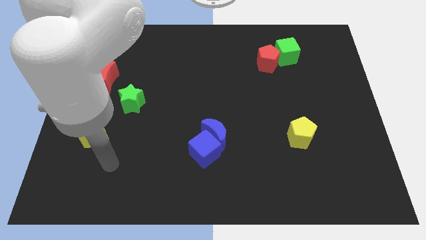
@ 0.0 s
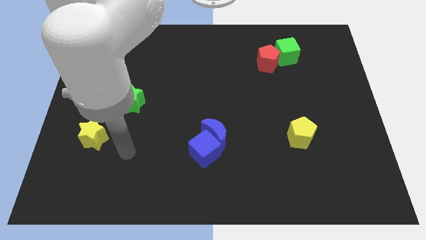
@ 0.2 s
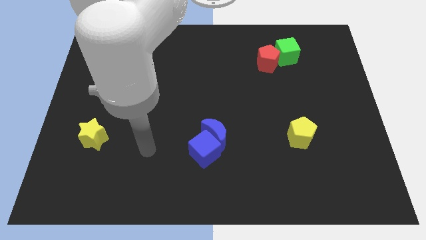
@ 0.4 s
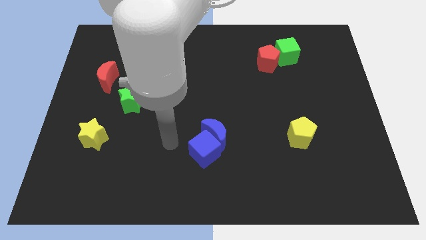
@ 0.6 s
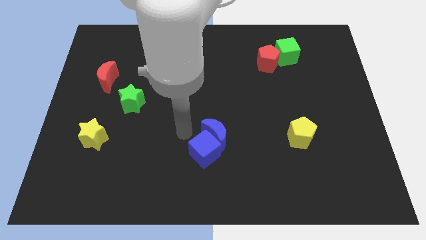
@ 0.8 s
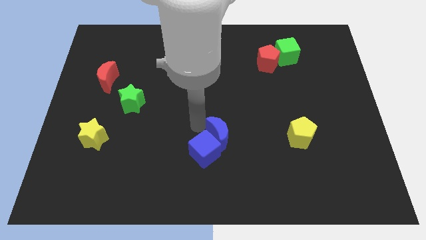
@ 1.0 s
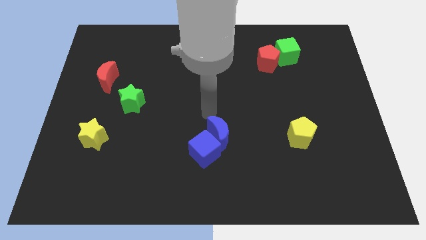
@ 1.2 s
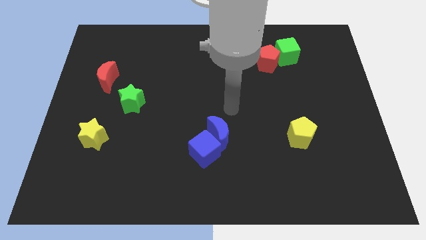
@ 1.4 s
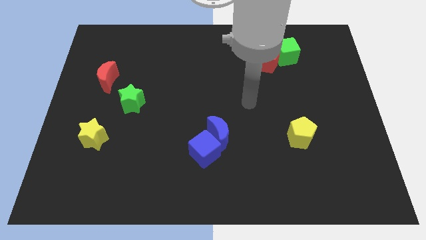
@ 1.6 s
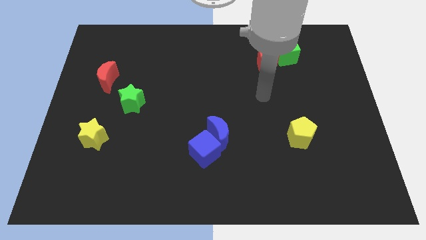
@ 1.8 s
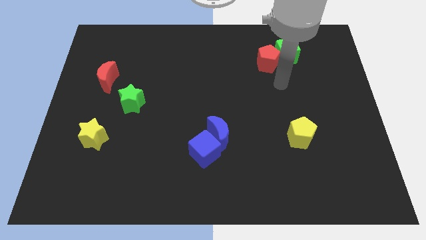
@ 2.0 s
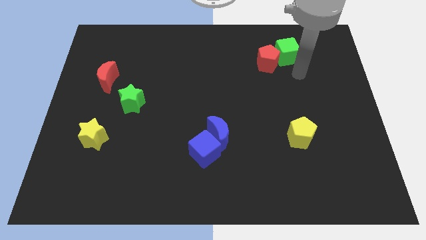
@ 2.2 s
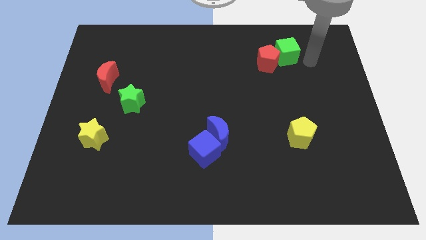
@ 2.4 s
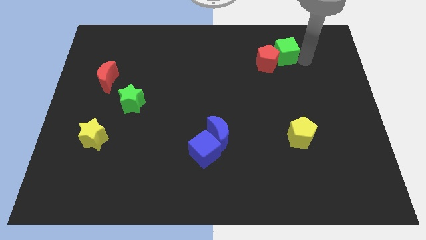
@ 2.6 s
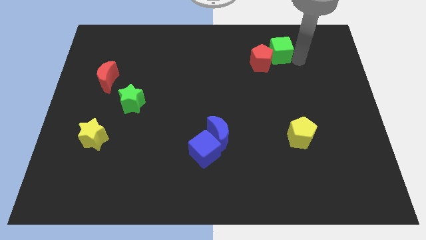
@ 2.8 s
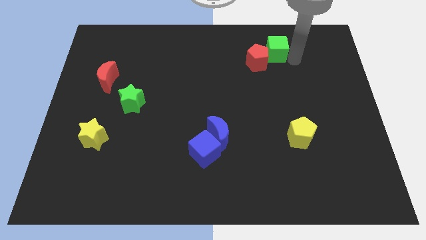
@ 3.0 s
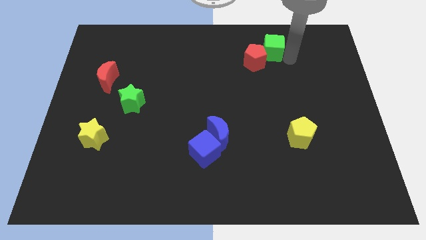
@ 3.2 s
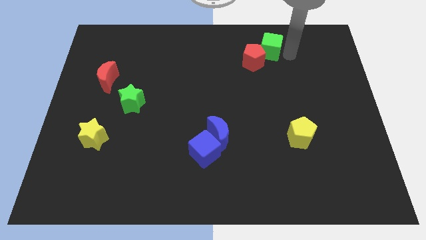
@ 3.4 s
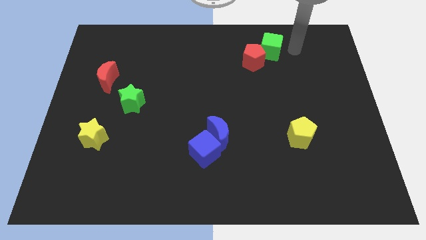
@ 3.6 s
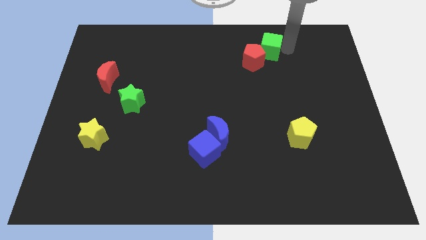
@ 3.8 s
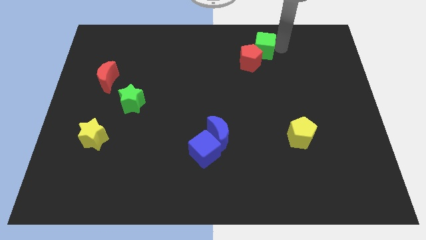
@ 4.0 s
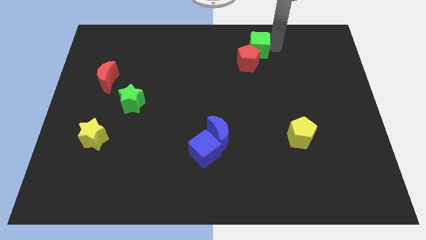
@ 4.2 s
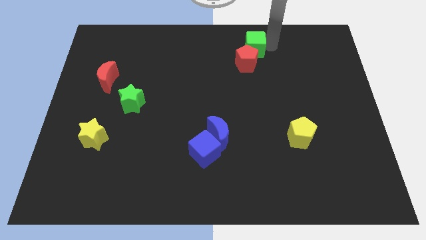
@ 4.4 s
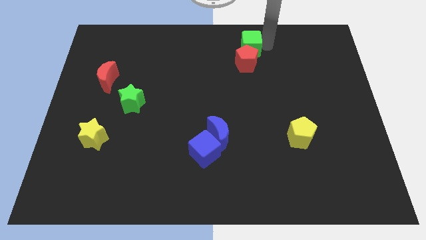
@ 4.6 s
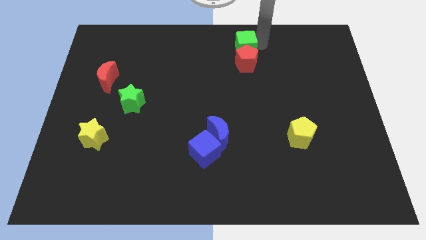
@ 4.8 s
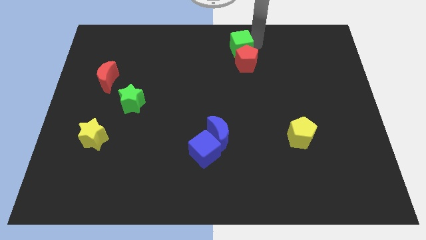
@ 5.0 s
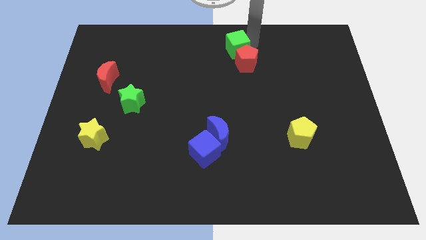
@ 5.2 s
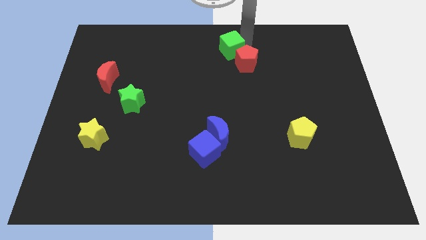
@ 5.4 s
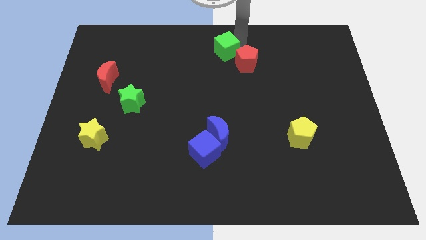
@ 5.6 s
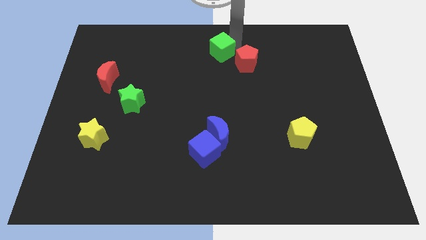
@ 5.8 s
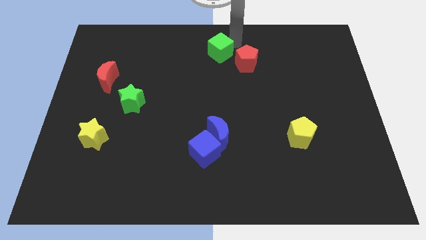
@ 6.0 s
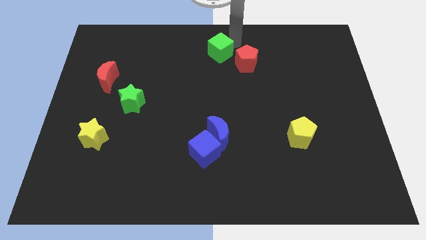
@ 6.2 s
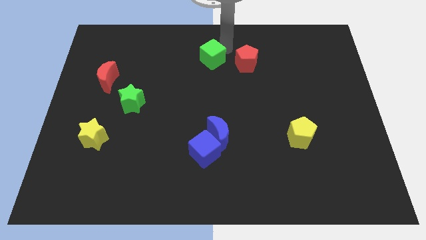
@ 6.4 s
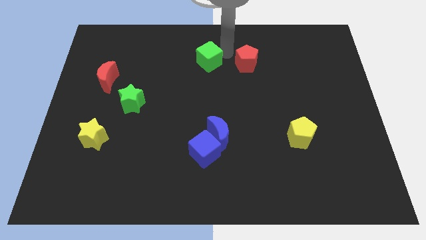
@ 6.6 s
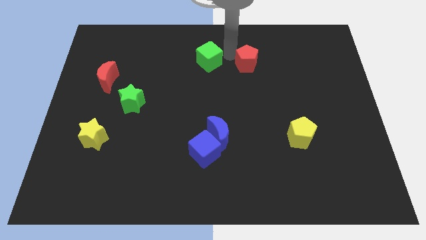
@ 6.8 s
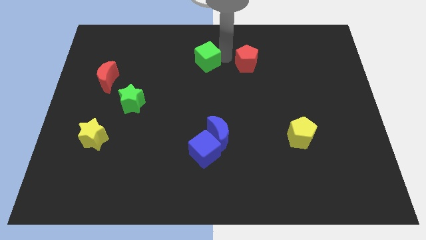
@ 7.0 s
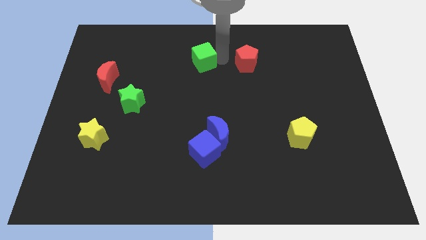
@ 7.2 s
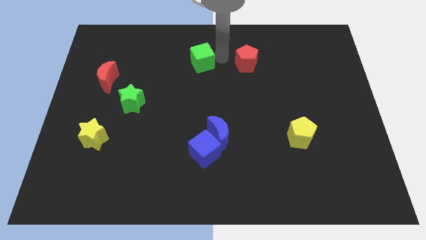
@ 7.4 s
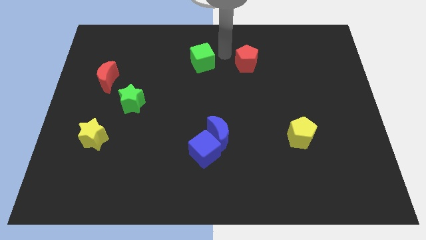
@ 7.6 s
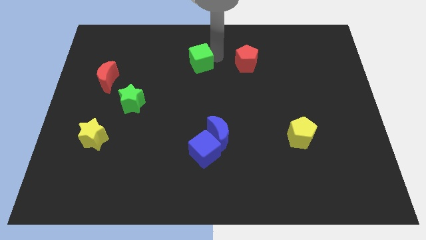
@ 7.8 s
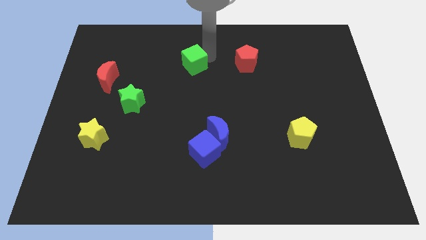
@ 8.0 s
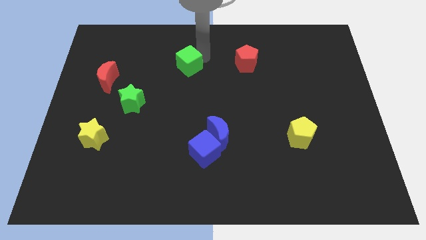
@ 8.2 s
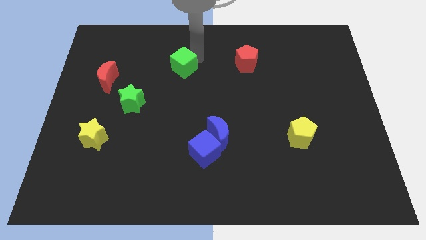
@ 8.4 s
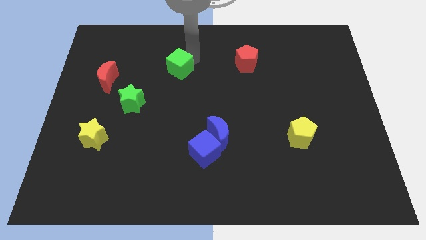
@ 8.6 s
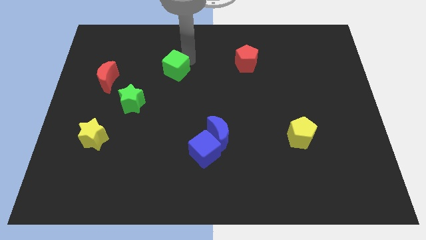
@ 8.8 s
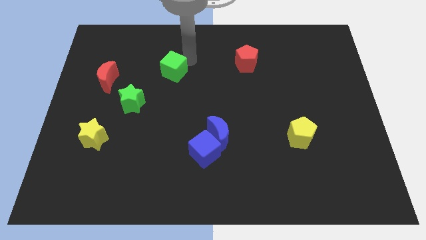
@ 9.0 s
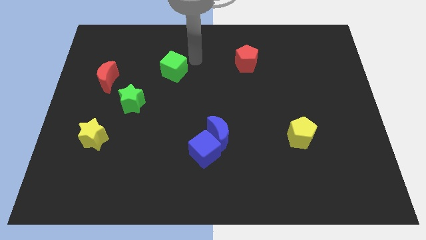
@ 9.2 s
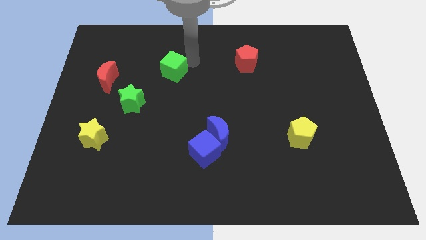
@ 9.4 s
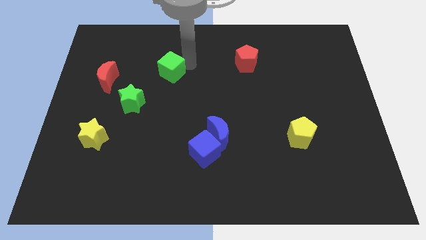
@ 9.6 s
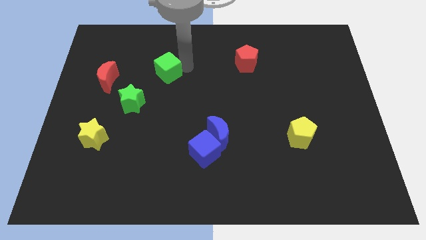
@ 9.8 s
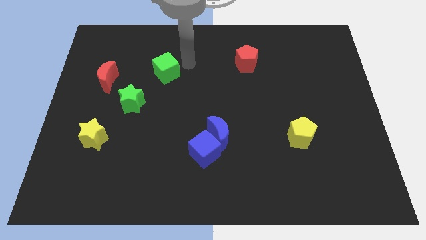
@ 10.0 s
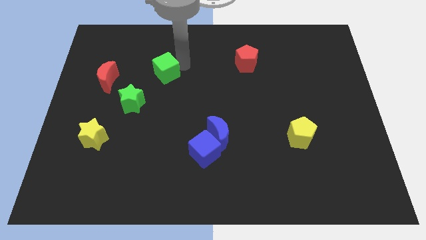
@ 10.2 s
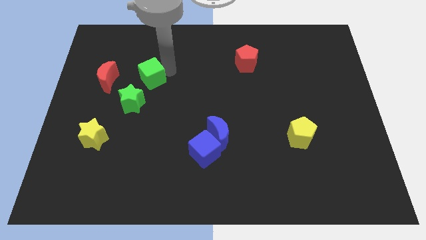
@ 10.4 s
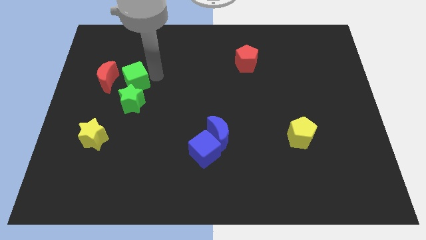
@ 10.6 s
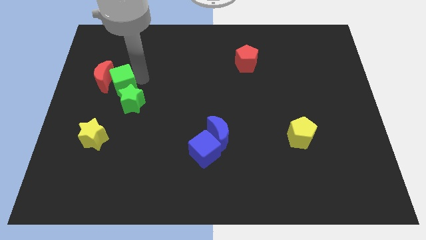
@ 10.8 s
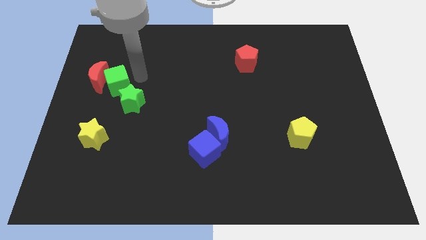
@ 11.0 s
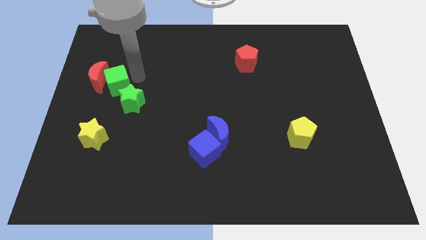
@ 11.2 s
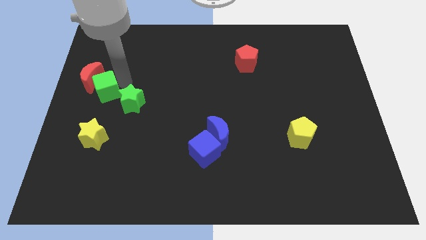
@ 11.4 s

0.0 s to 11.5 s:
move the green cube to the center left

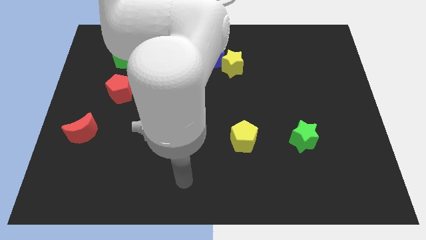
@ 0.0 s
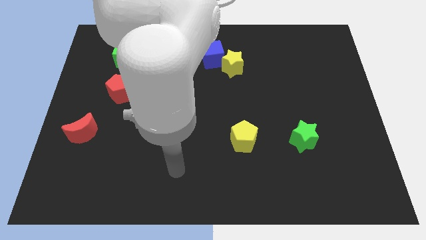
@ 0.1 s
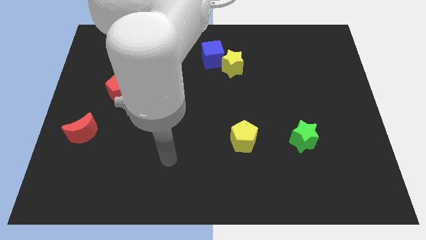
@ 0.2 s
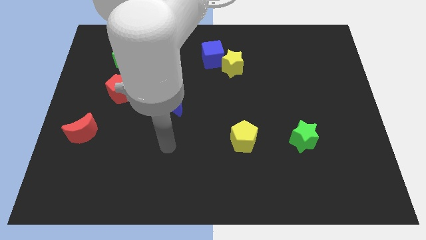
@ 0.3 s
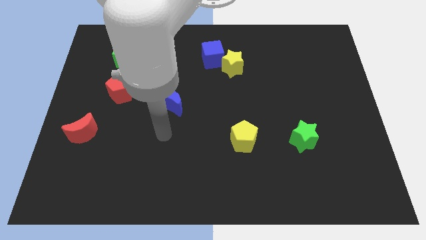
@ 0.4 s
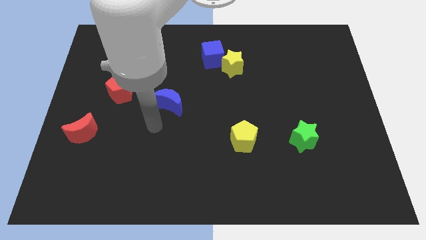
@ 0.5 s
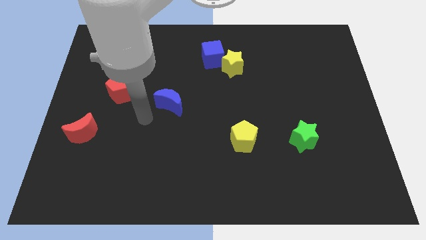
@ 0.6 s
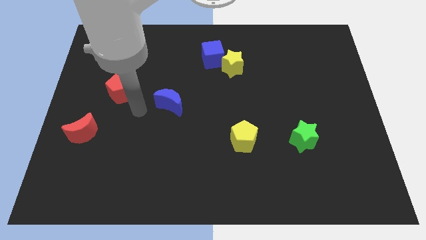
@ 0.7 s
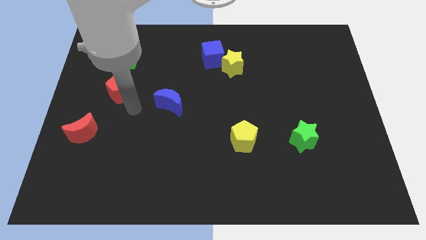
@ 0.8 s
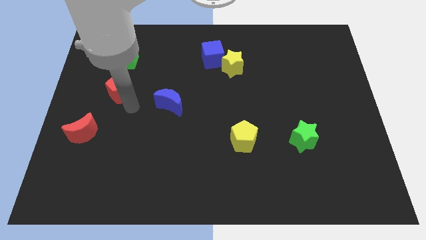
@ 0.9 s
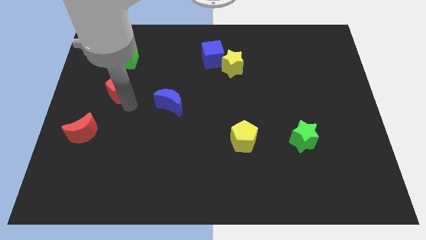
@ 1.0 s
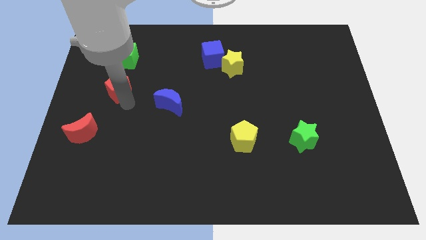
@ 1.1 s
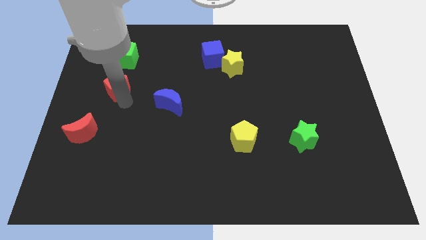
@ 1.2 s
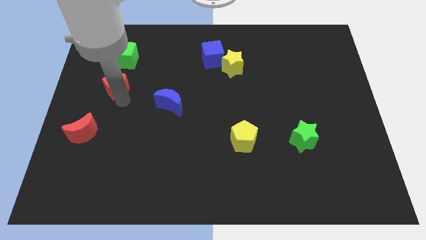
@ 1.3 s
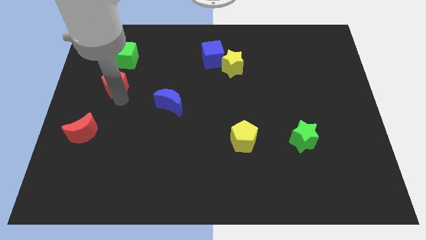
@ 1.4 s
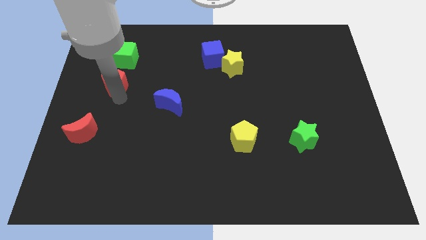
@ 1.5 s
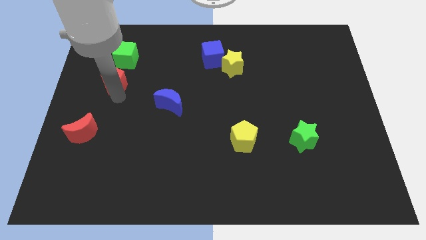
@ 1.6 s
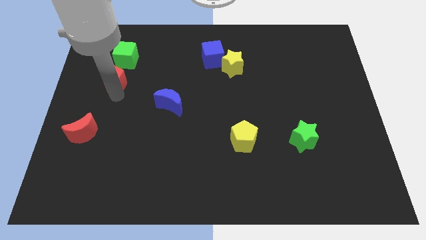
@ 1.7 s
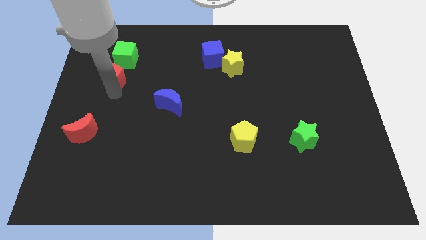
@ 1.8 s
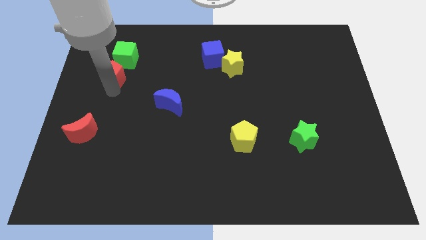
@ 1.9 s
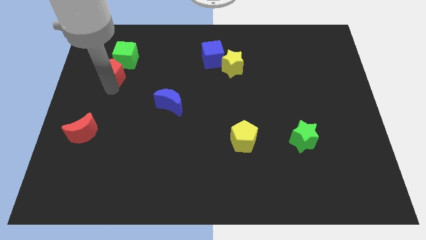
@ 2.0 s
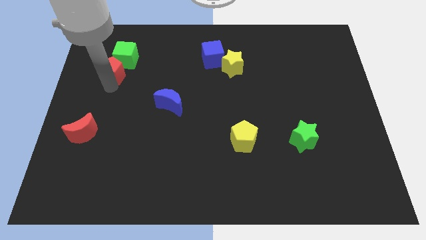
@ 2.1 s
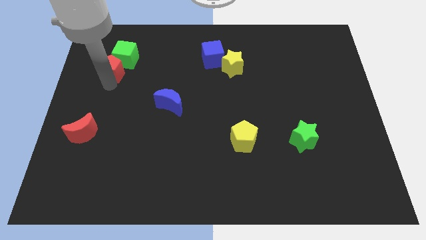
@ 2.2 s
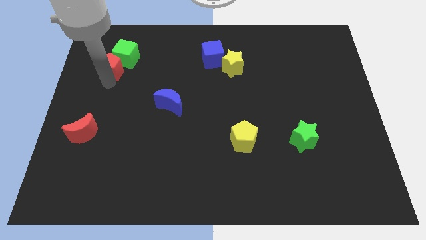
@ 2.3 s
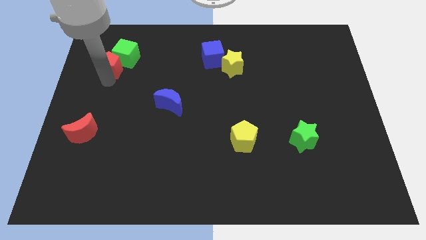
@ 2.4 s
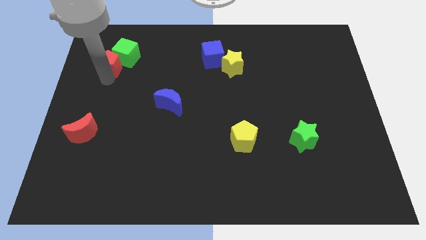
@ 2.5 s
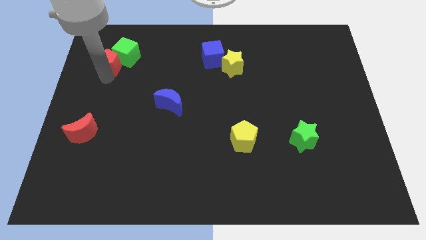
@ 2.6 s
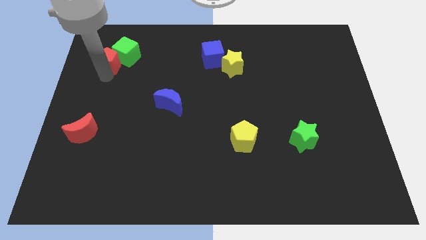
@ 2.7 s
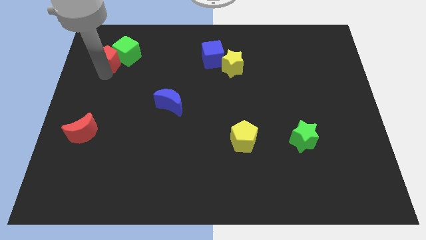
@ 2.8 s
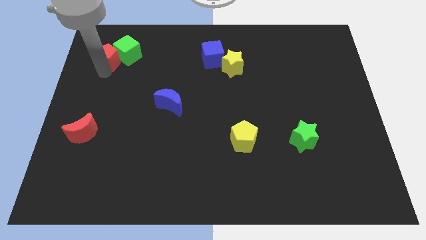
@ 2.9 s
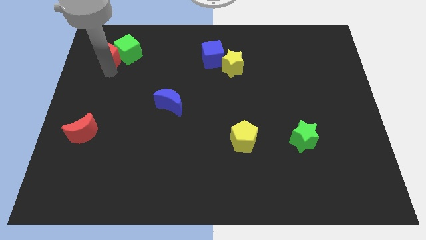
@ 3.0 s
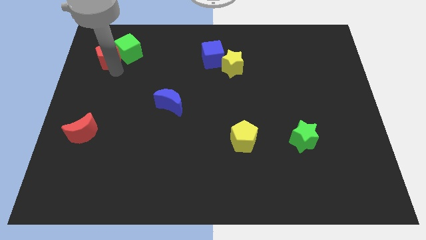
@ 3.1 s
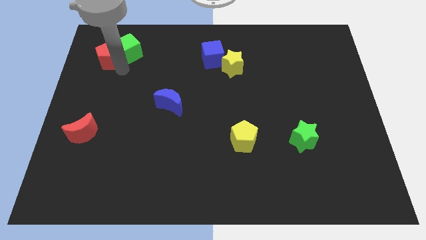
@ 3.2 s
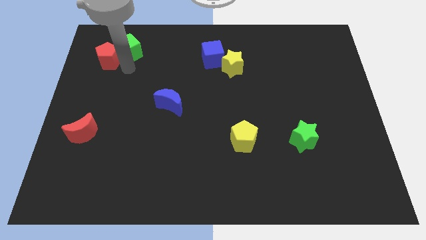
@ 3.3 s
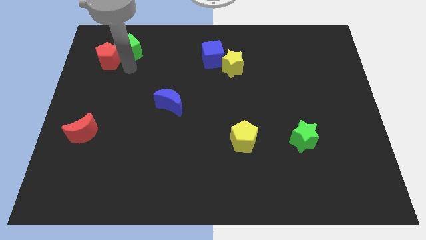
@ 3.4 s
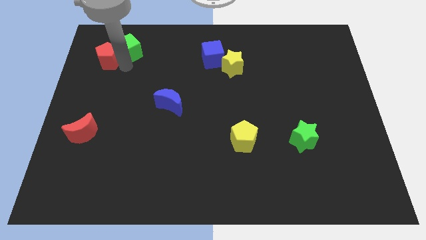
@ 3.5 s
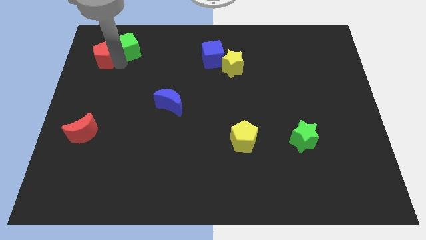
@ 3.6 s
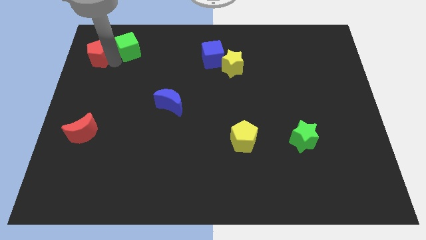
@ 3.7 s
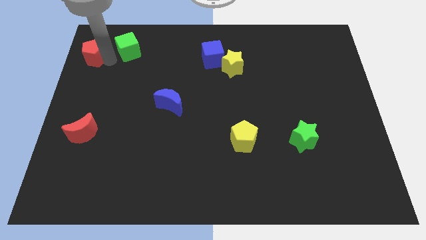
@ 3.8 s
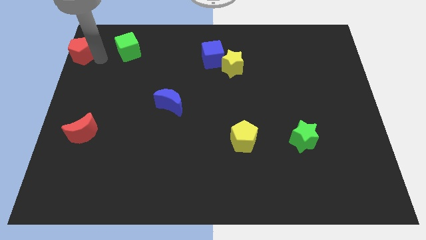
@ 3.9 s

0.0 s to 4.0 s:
put the red pentagon to the top left
